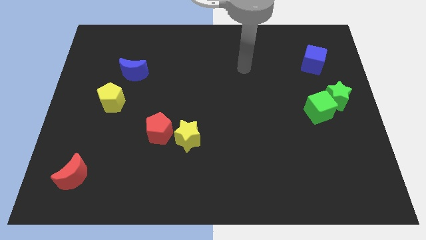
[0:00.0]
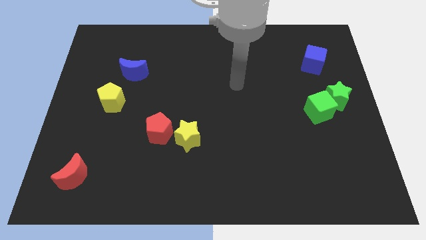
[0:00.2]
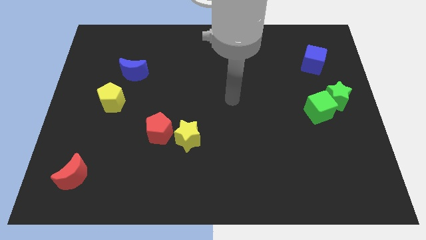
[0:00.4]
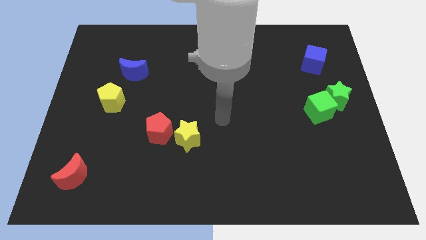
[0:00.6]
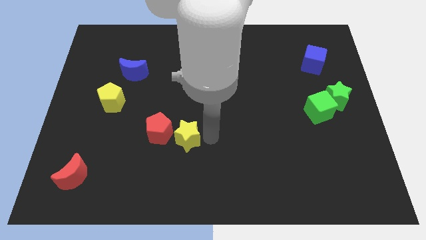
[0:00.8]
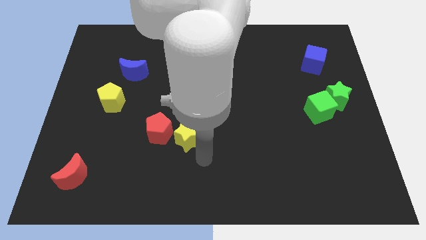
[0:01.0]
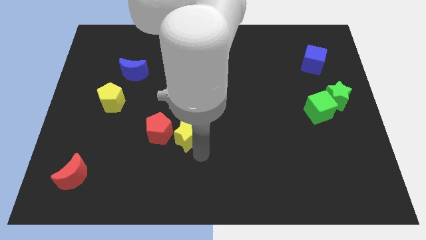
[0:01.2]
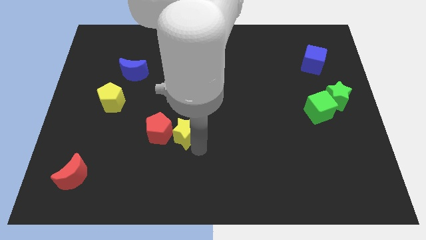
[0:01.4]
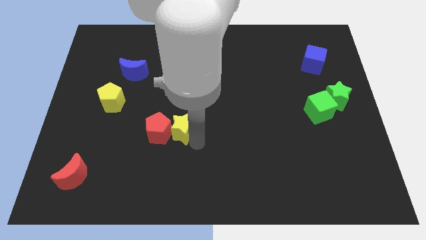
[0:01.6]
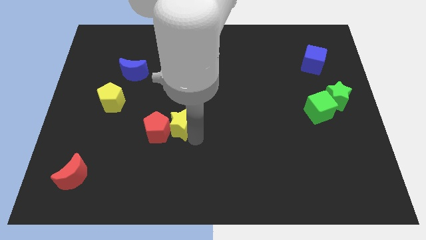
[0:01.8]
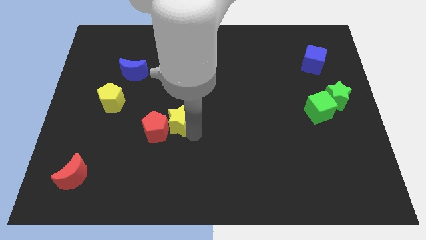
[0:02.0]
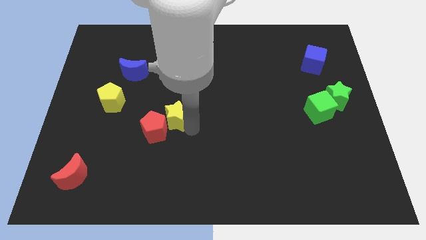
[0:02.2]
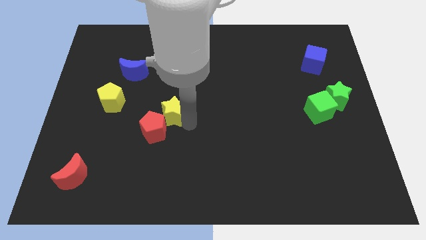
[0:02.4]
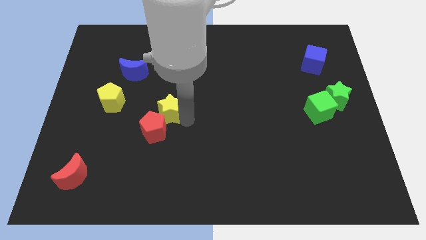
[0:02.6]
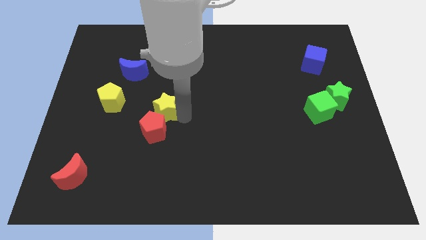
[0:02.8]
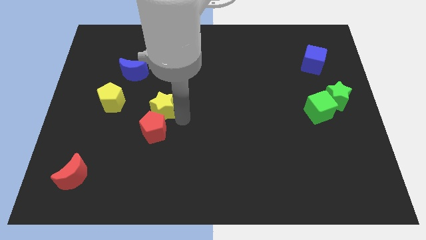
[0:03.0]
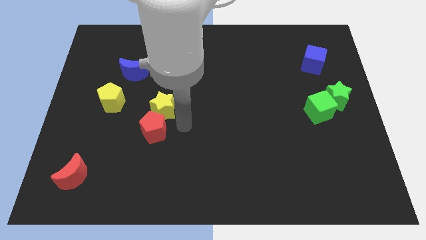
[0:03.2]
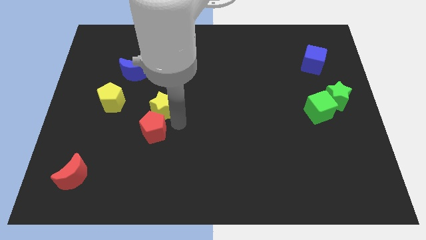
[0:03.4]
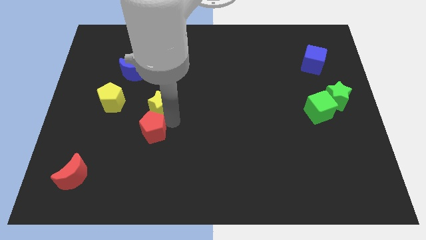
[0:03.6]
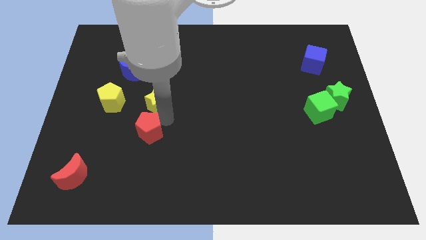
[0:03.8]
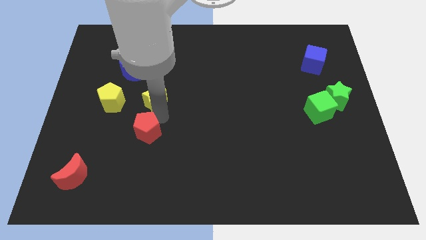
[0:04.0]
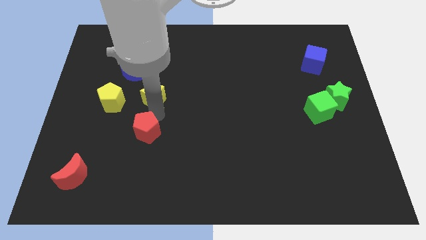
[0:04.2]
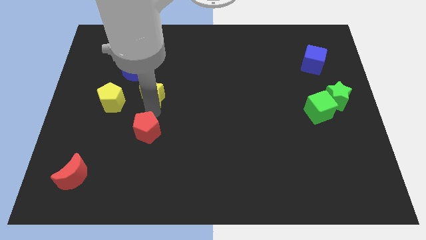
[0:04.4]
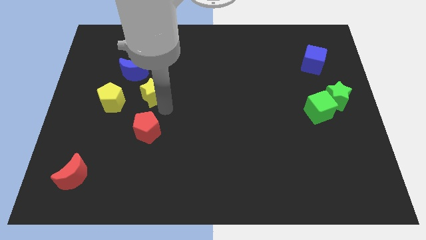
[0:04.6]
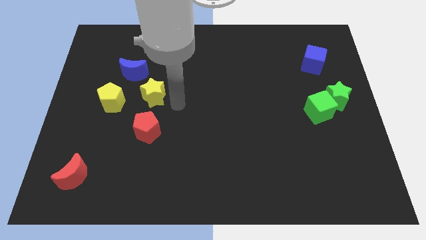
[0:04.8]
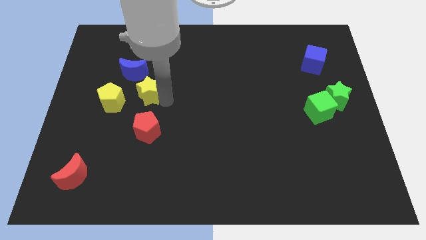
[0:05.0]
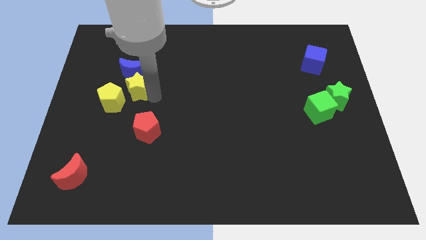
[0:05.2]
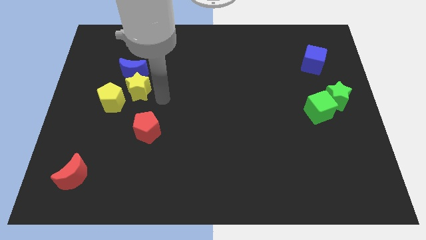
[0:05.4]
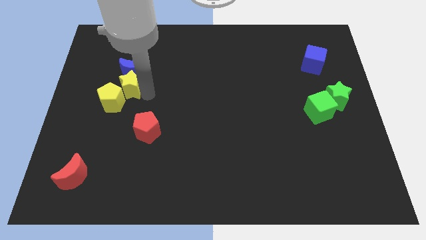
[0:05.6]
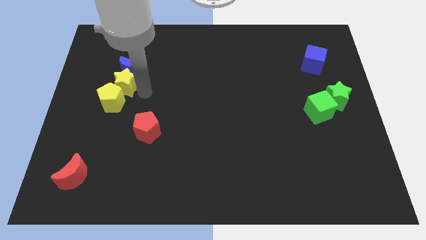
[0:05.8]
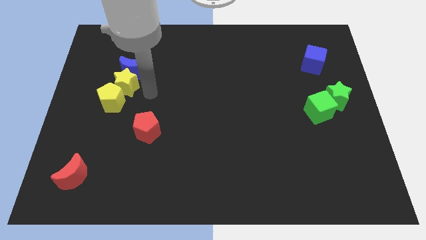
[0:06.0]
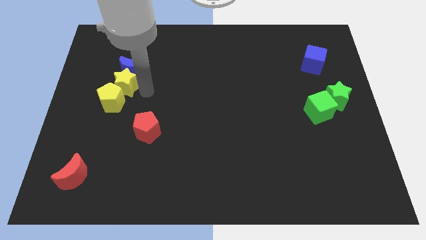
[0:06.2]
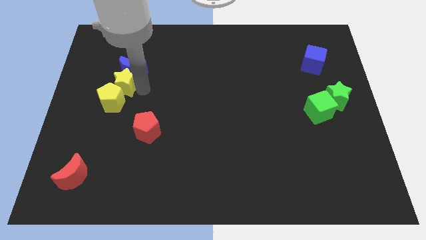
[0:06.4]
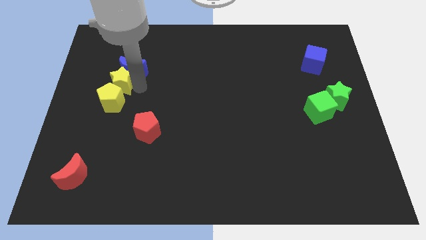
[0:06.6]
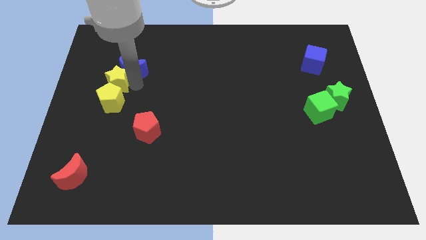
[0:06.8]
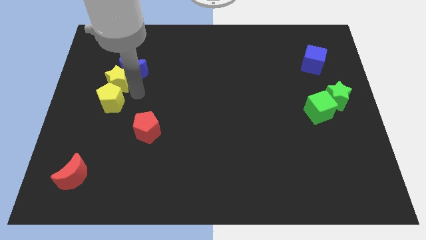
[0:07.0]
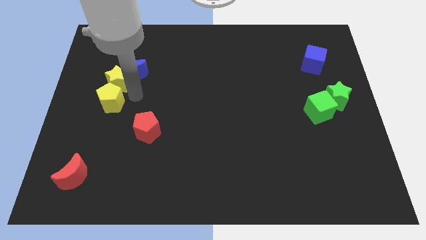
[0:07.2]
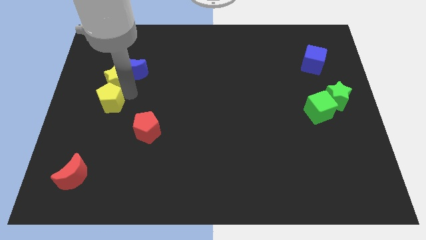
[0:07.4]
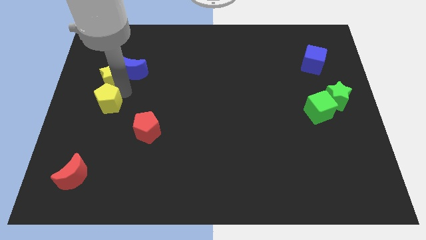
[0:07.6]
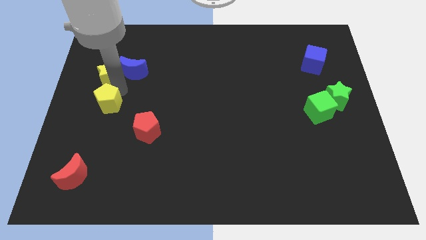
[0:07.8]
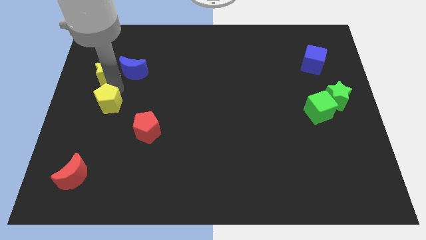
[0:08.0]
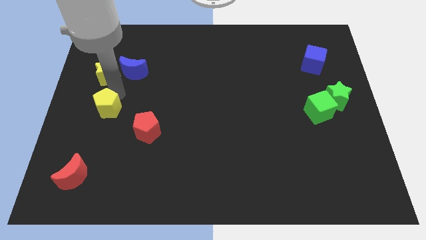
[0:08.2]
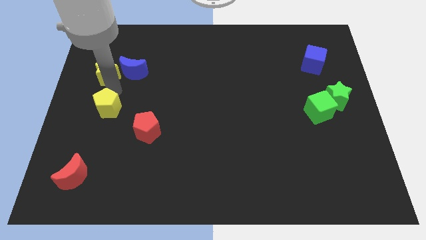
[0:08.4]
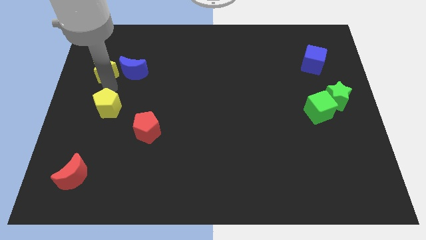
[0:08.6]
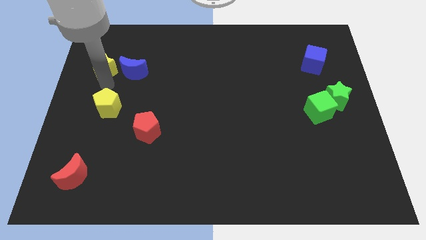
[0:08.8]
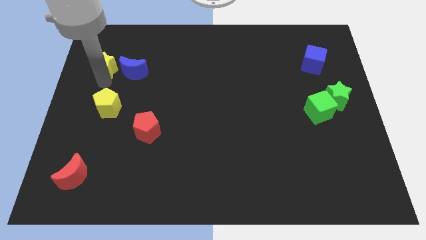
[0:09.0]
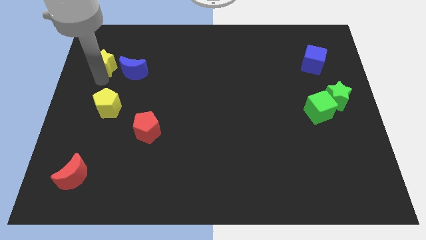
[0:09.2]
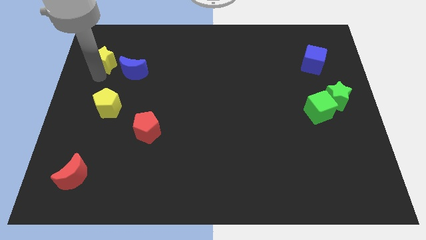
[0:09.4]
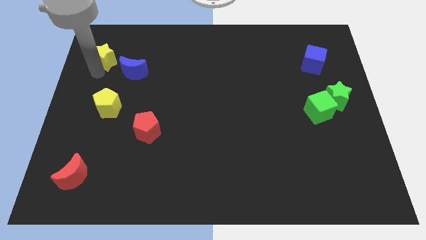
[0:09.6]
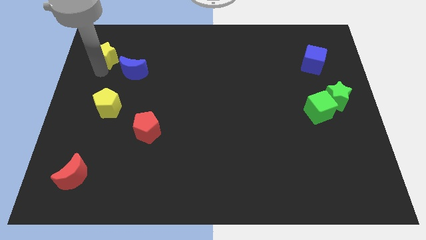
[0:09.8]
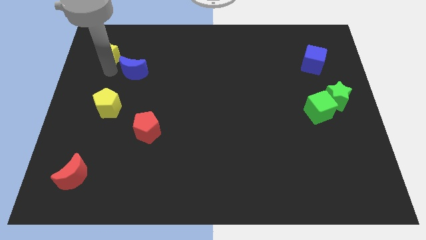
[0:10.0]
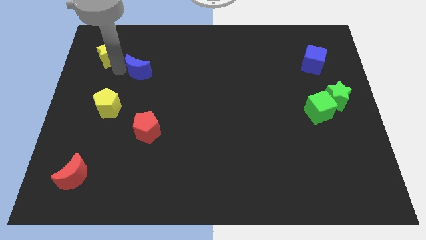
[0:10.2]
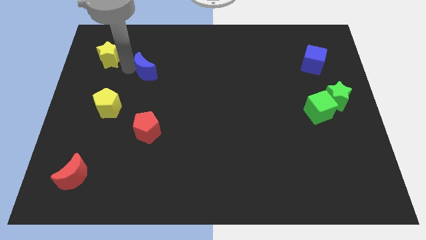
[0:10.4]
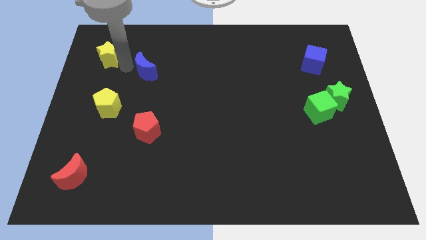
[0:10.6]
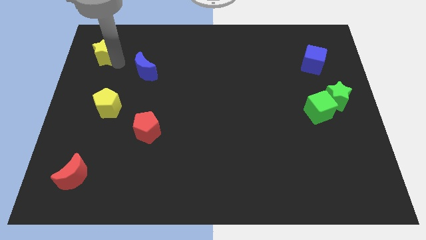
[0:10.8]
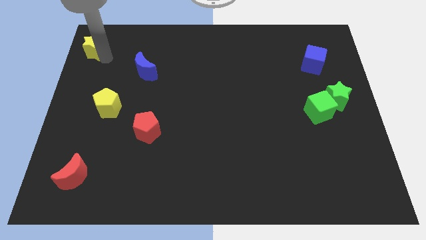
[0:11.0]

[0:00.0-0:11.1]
push the yellow star to the top left of the board

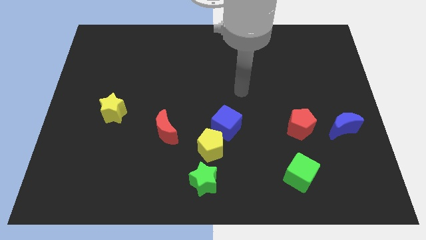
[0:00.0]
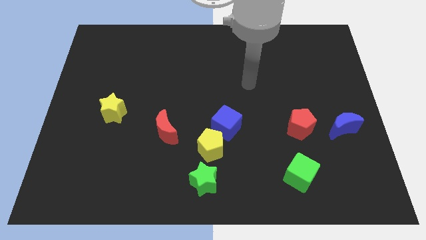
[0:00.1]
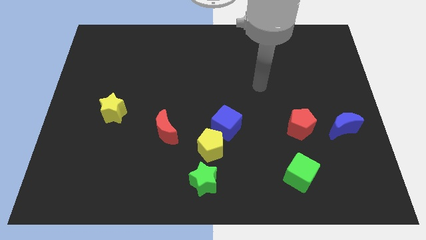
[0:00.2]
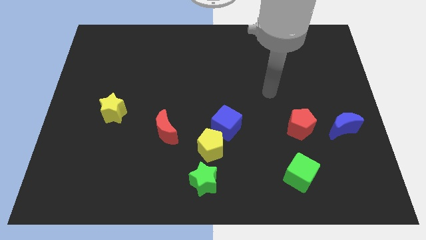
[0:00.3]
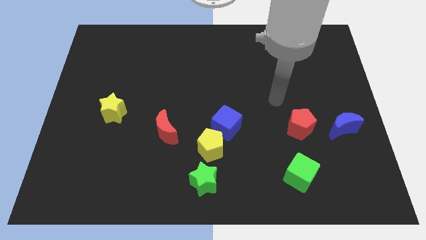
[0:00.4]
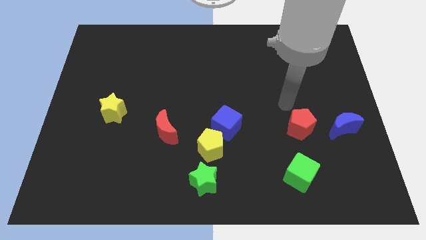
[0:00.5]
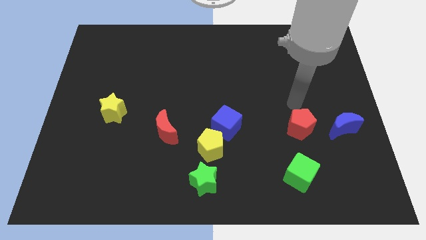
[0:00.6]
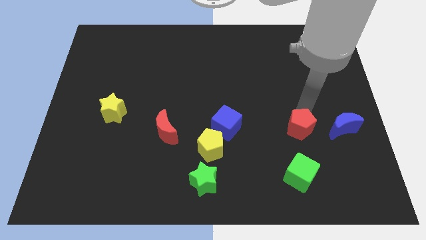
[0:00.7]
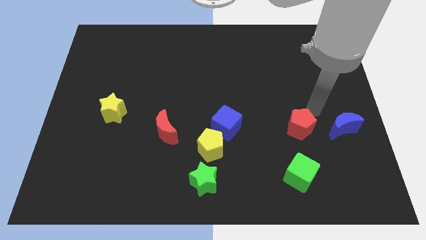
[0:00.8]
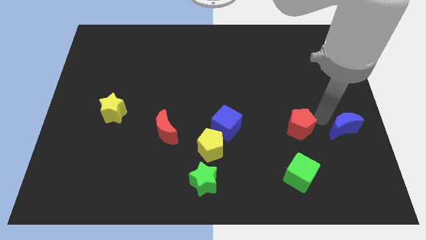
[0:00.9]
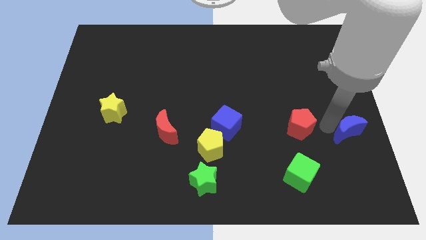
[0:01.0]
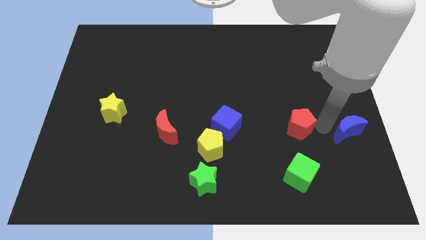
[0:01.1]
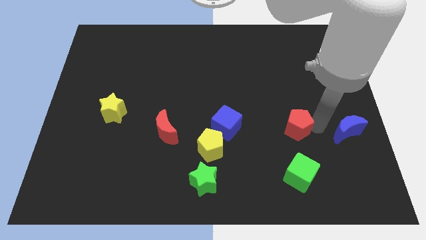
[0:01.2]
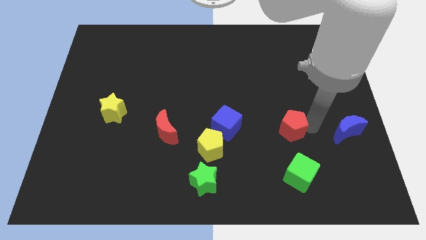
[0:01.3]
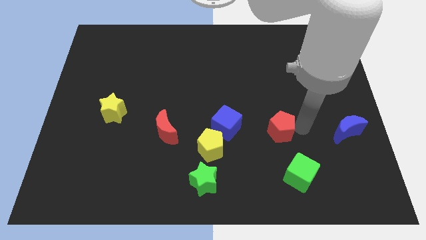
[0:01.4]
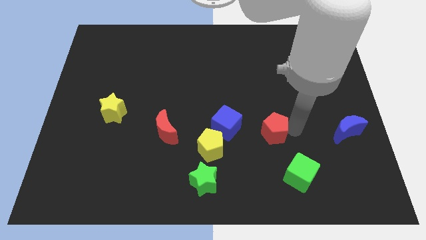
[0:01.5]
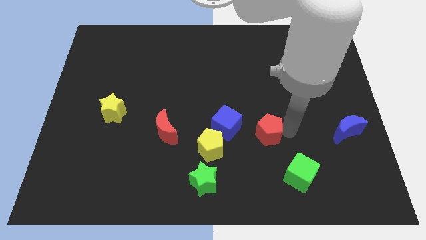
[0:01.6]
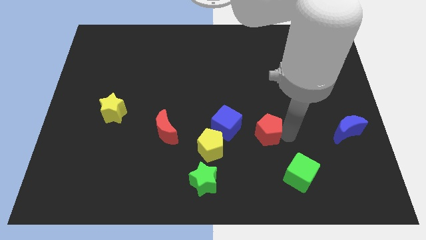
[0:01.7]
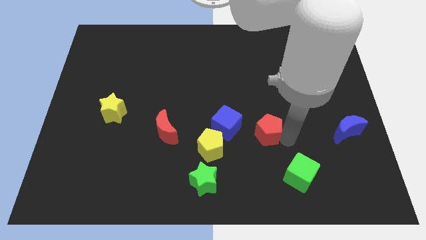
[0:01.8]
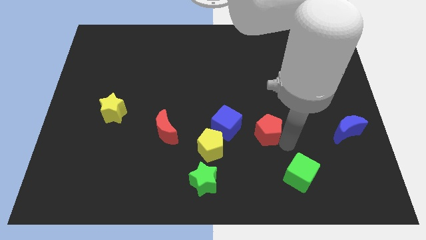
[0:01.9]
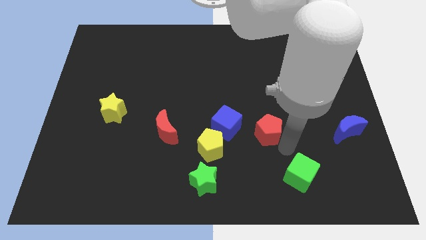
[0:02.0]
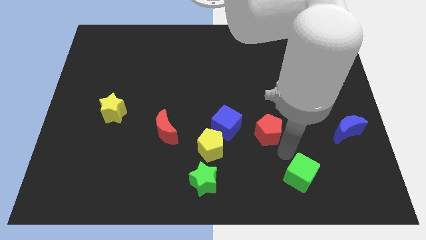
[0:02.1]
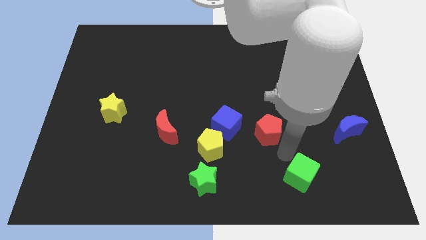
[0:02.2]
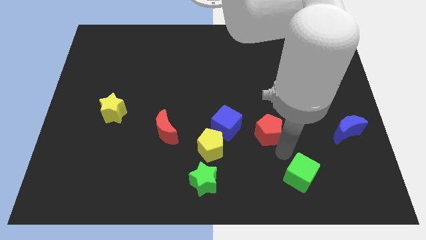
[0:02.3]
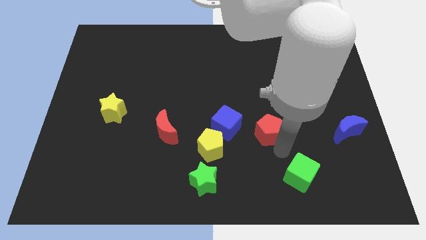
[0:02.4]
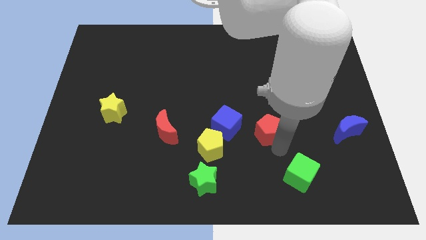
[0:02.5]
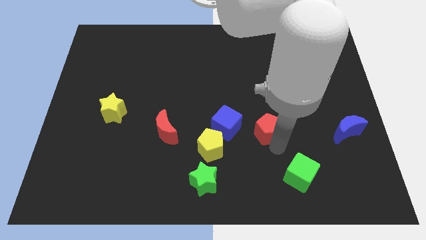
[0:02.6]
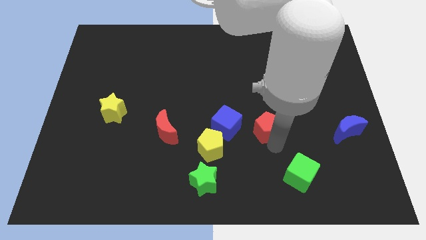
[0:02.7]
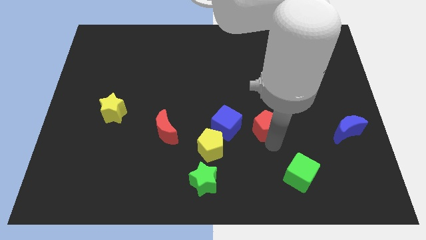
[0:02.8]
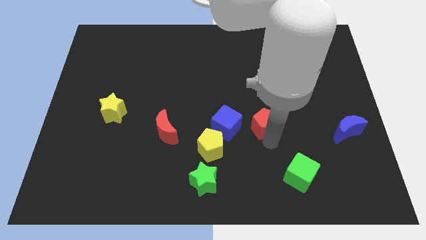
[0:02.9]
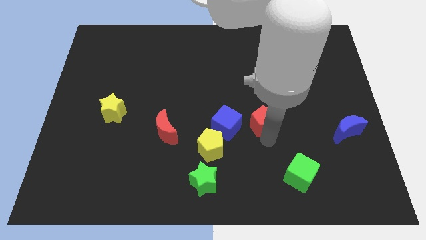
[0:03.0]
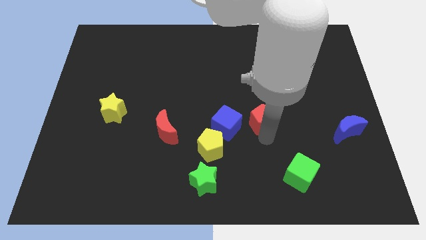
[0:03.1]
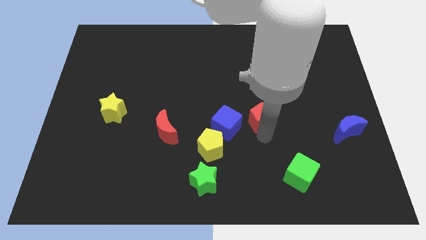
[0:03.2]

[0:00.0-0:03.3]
slide the red pentagon to the middle
